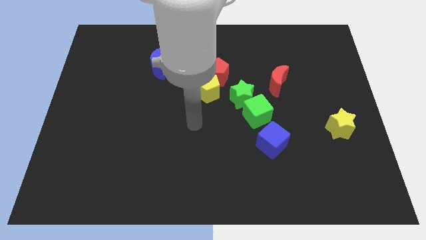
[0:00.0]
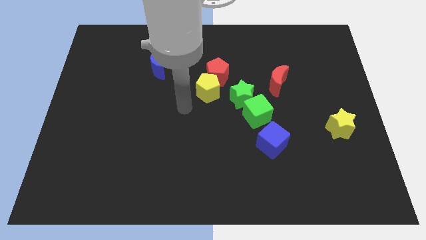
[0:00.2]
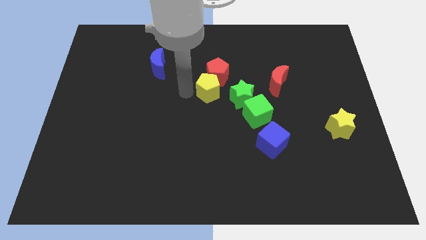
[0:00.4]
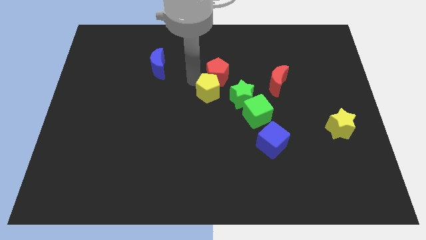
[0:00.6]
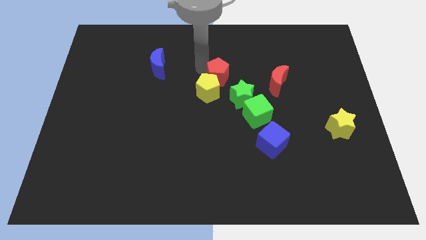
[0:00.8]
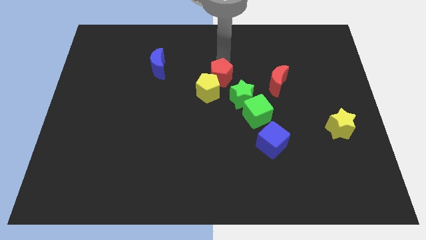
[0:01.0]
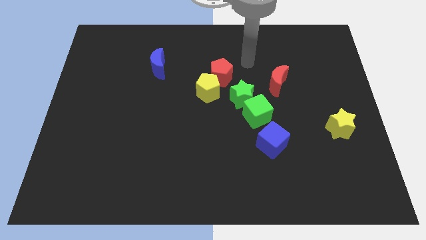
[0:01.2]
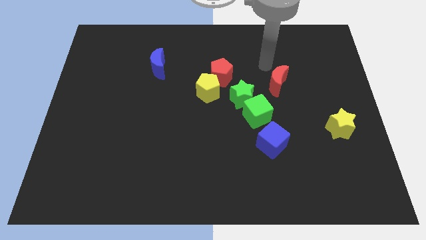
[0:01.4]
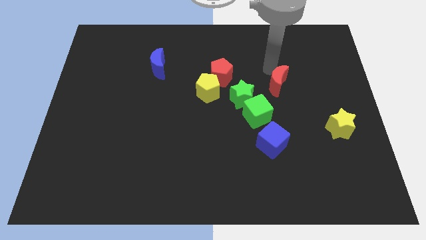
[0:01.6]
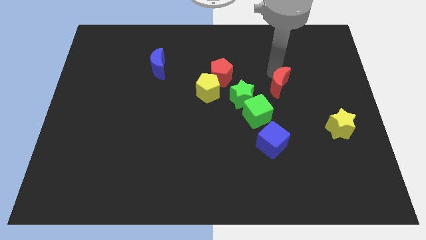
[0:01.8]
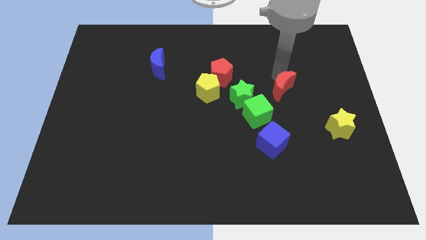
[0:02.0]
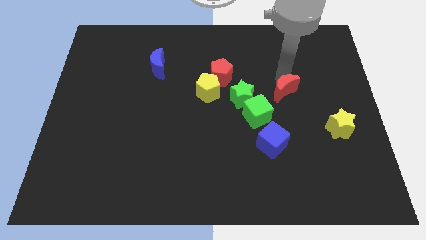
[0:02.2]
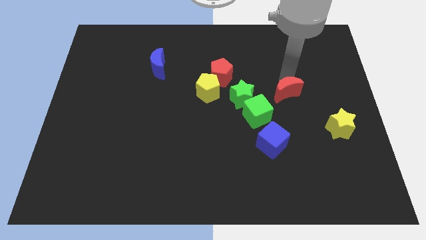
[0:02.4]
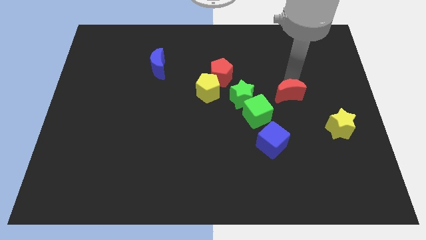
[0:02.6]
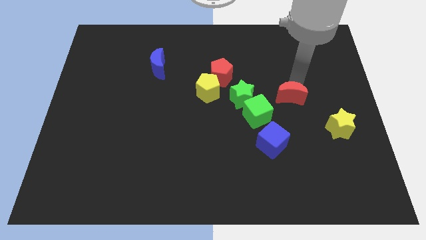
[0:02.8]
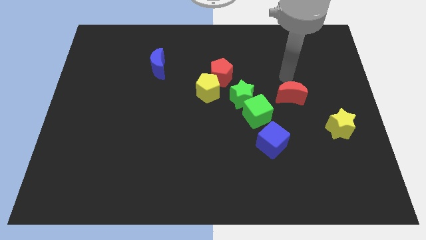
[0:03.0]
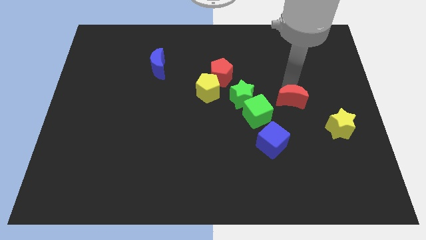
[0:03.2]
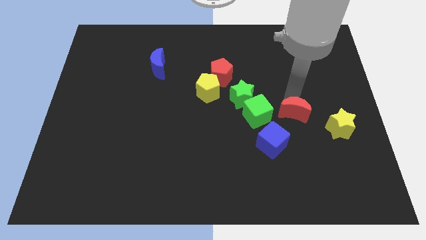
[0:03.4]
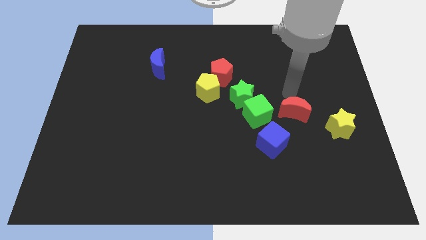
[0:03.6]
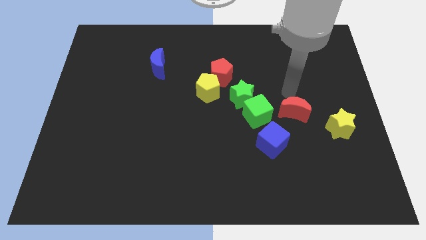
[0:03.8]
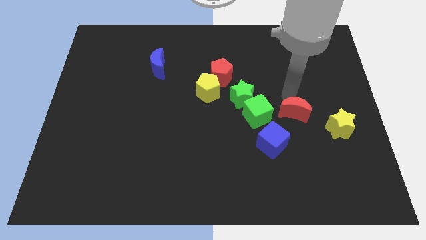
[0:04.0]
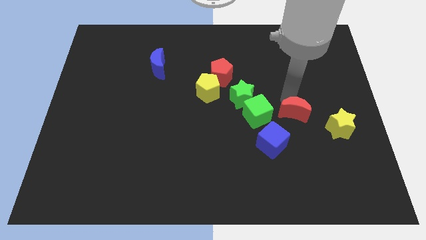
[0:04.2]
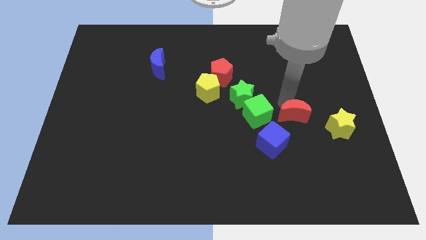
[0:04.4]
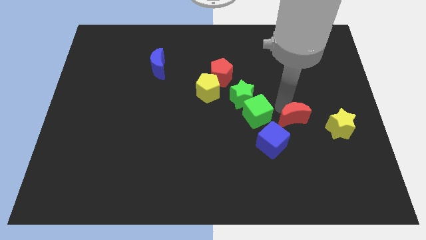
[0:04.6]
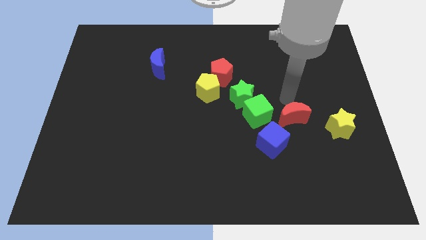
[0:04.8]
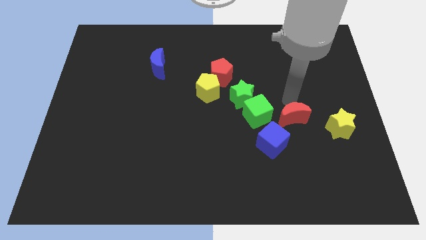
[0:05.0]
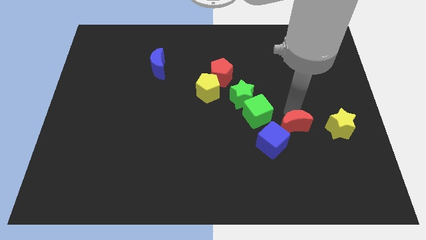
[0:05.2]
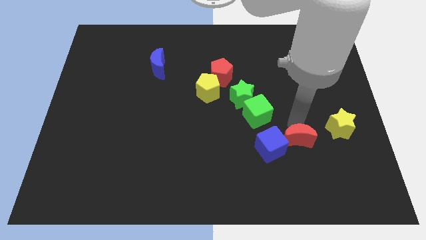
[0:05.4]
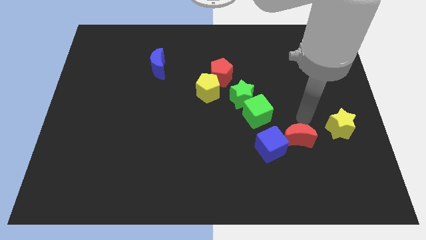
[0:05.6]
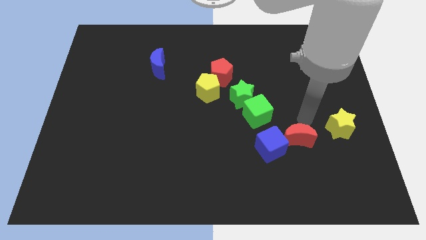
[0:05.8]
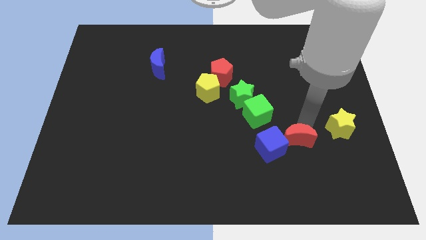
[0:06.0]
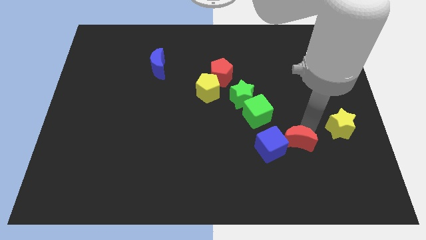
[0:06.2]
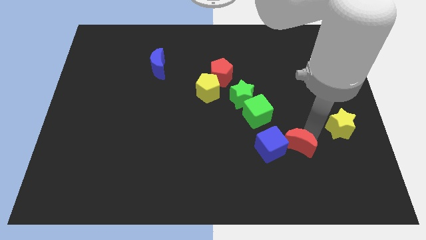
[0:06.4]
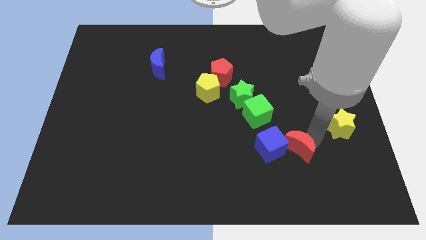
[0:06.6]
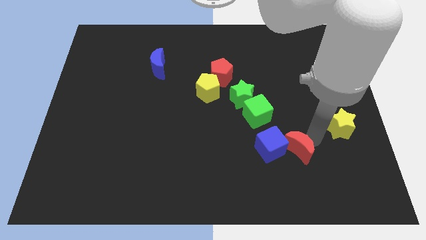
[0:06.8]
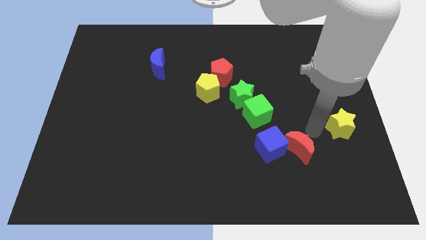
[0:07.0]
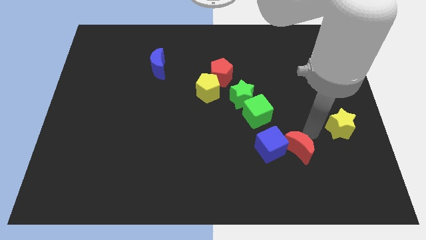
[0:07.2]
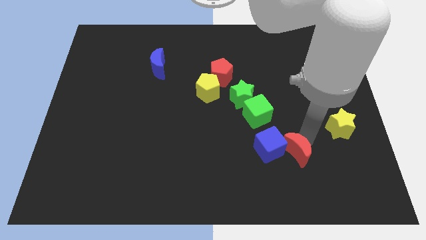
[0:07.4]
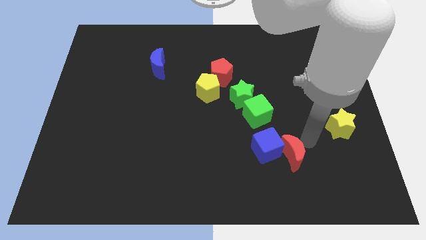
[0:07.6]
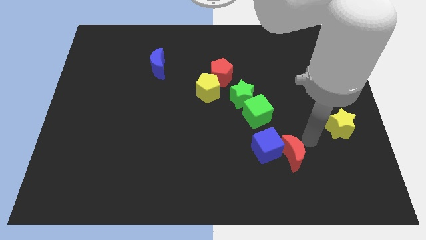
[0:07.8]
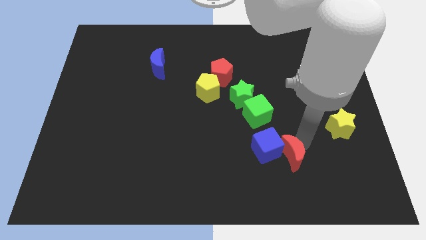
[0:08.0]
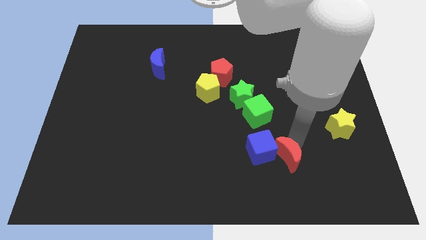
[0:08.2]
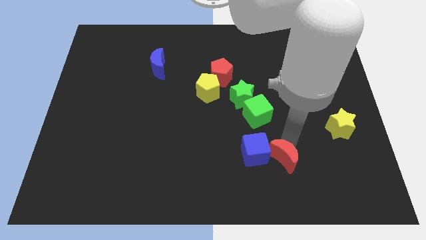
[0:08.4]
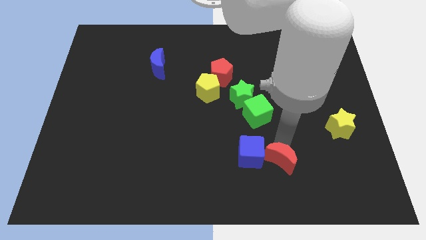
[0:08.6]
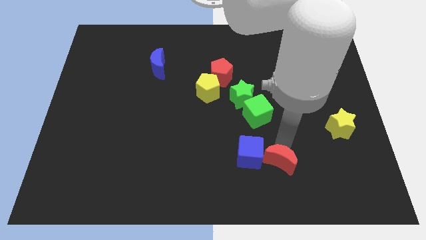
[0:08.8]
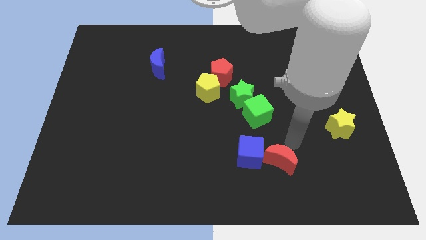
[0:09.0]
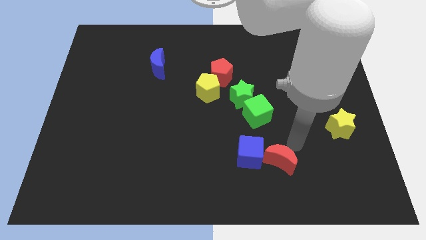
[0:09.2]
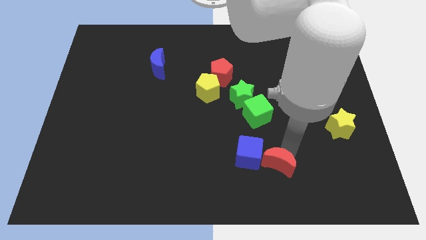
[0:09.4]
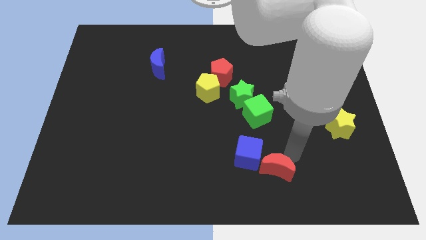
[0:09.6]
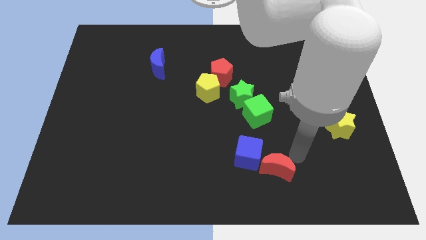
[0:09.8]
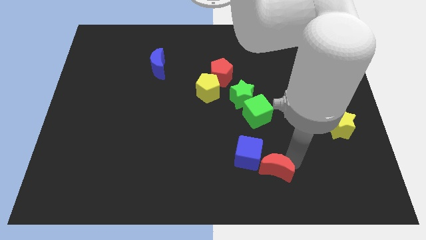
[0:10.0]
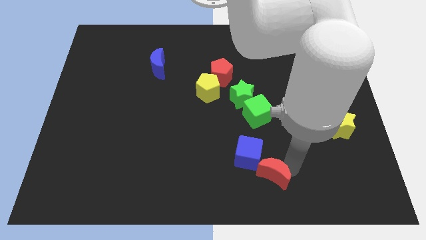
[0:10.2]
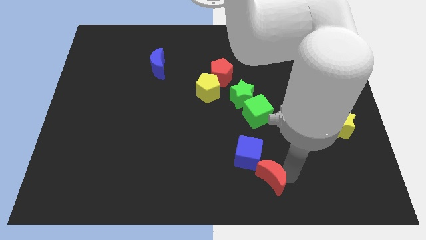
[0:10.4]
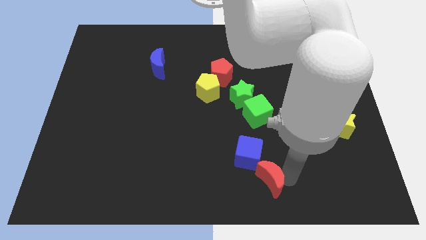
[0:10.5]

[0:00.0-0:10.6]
move the red moon to the bottom side

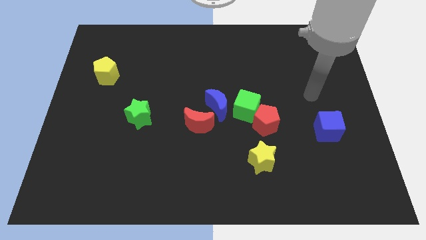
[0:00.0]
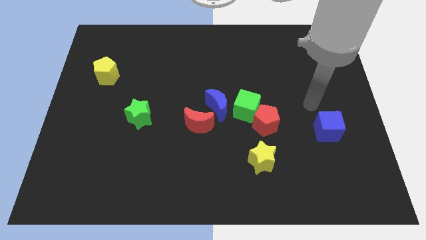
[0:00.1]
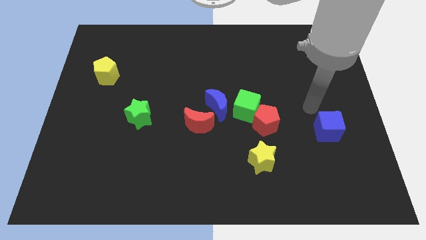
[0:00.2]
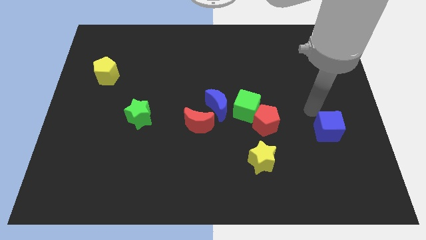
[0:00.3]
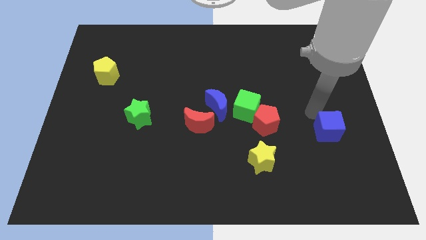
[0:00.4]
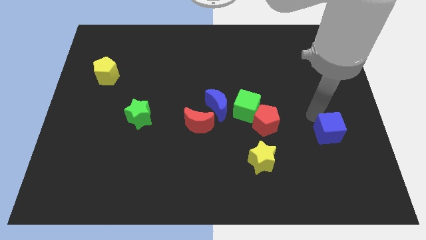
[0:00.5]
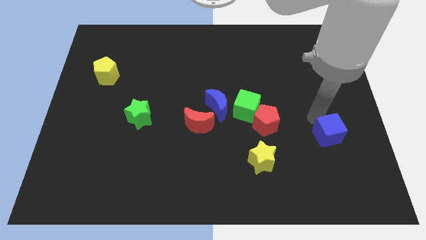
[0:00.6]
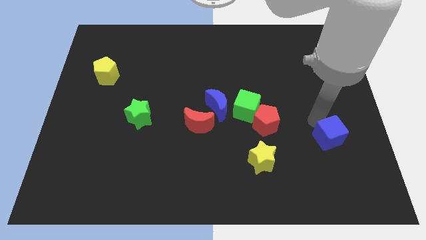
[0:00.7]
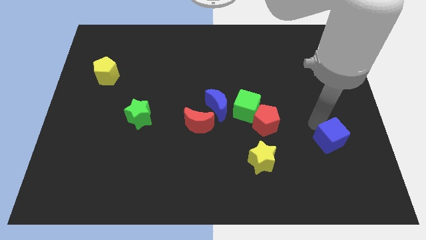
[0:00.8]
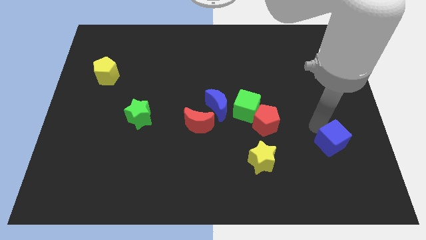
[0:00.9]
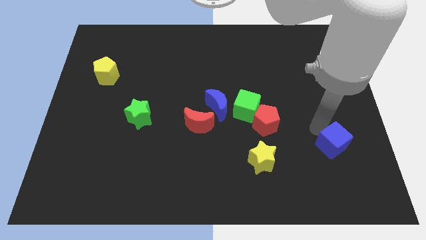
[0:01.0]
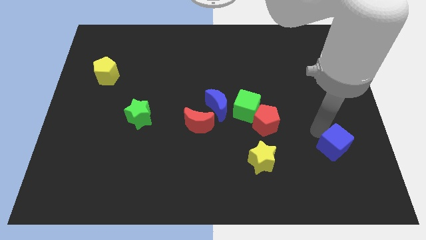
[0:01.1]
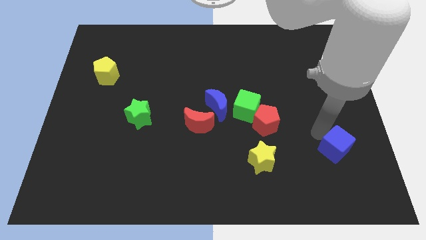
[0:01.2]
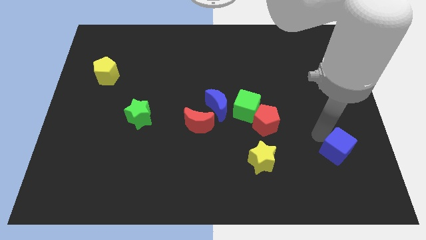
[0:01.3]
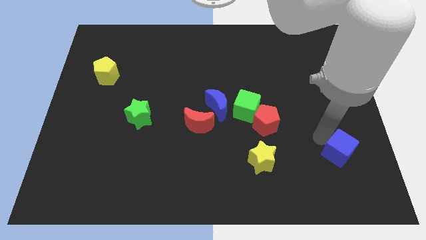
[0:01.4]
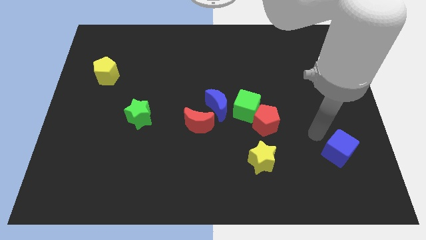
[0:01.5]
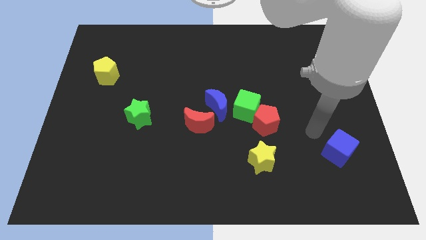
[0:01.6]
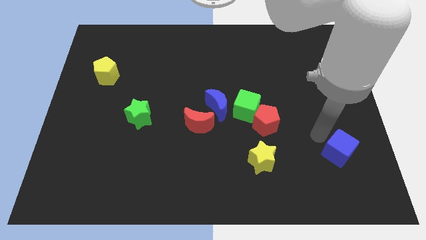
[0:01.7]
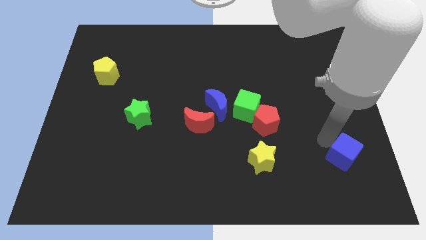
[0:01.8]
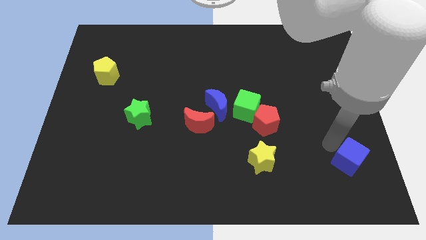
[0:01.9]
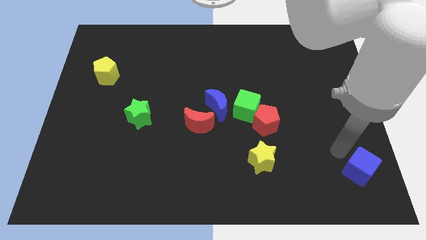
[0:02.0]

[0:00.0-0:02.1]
push the blue cube to the lower right corner
